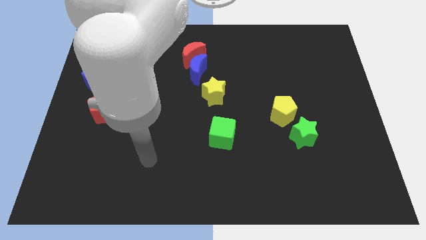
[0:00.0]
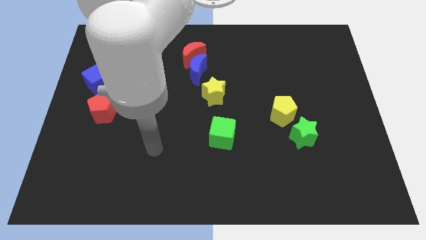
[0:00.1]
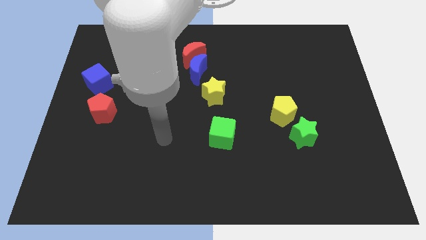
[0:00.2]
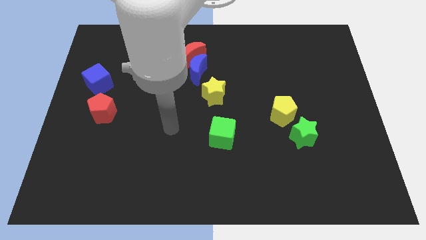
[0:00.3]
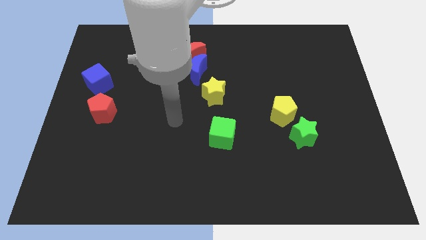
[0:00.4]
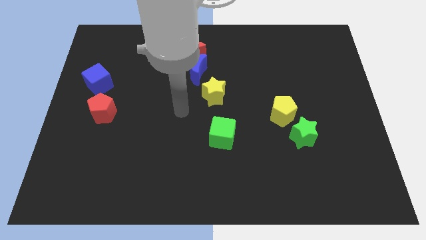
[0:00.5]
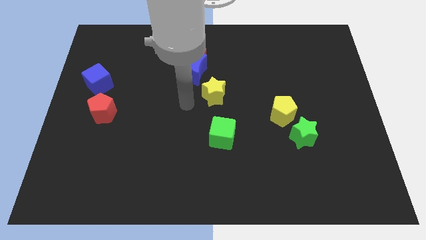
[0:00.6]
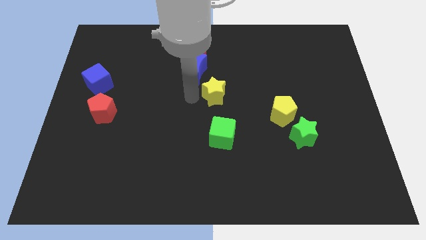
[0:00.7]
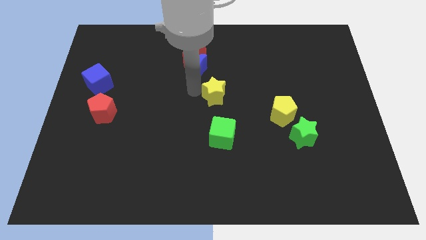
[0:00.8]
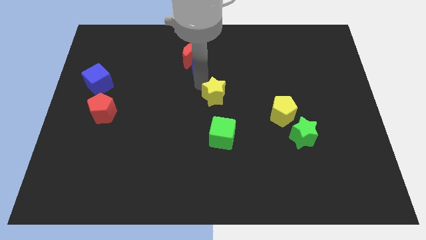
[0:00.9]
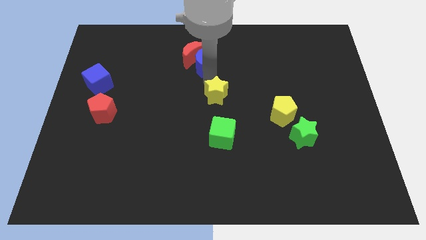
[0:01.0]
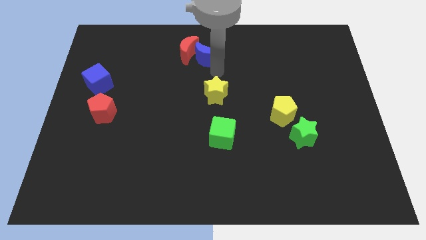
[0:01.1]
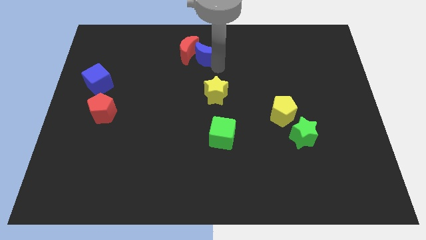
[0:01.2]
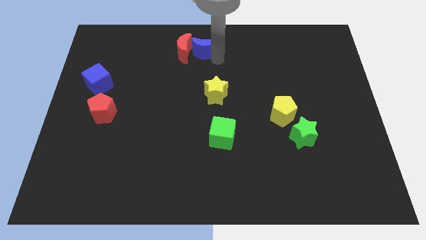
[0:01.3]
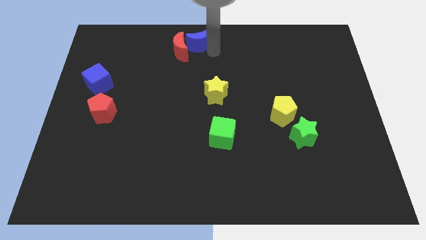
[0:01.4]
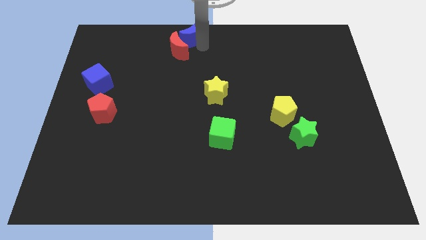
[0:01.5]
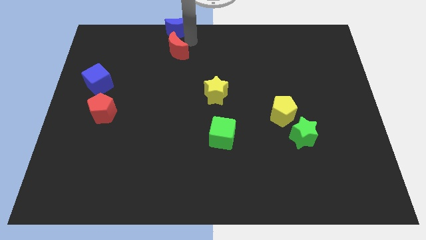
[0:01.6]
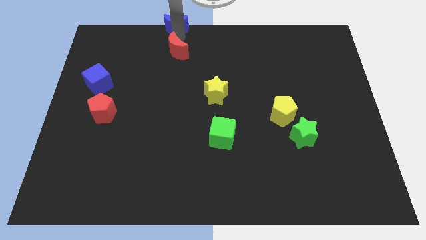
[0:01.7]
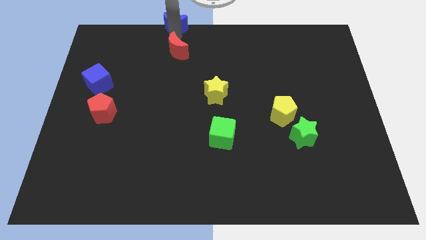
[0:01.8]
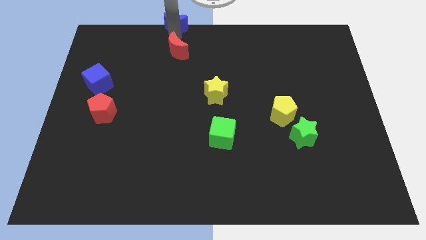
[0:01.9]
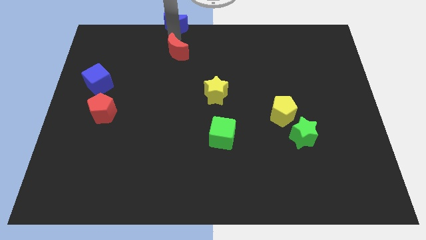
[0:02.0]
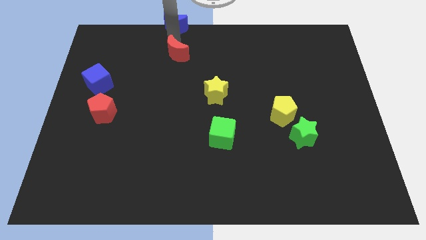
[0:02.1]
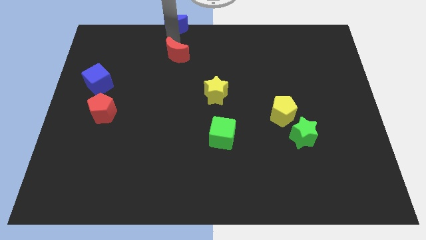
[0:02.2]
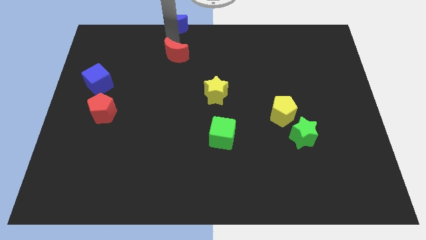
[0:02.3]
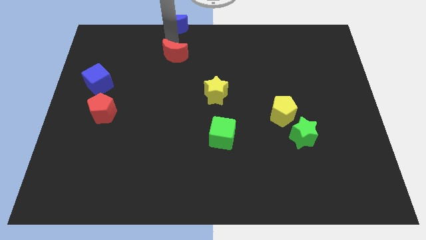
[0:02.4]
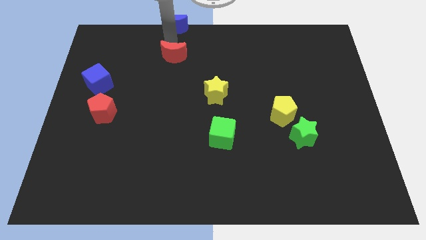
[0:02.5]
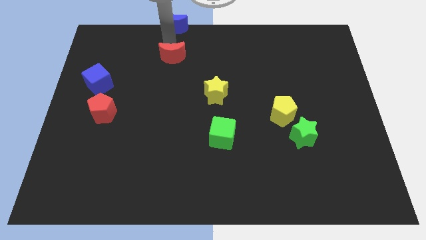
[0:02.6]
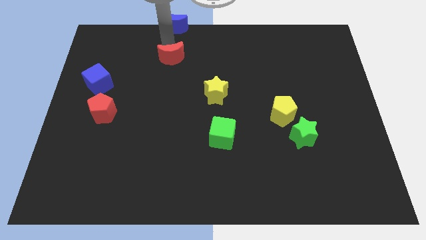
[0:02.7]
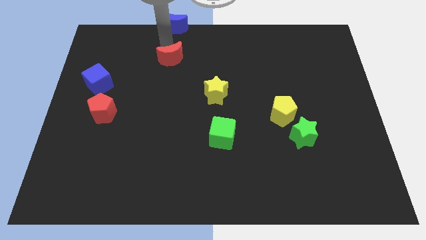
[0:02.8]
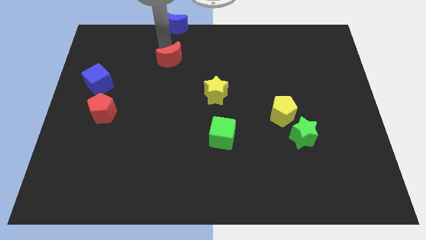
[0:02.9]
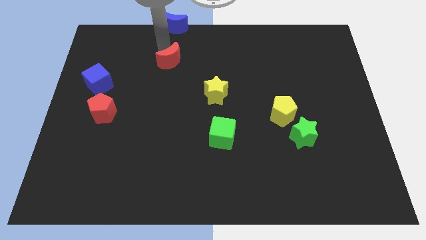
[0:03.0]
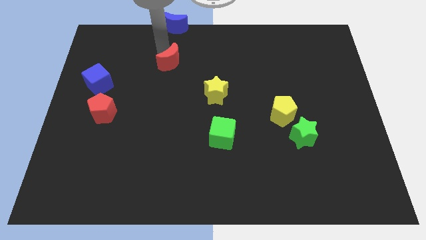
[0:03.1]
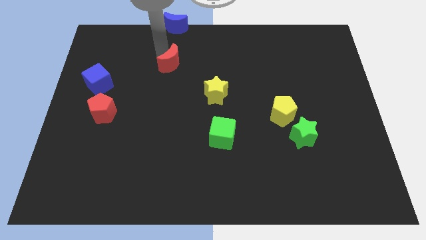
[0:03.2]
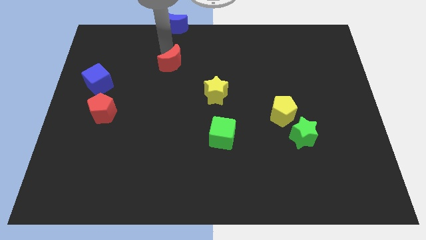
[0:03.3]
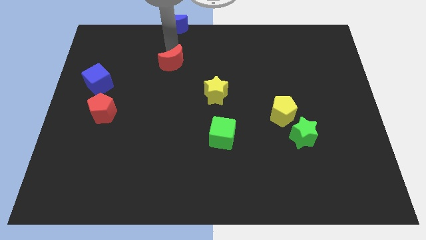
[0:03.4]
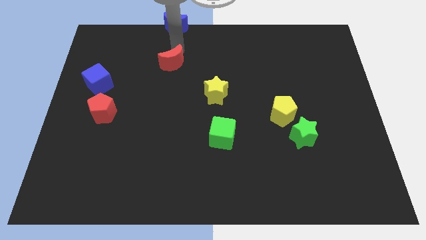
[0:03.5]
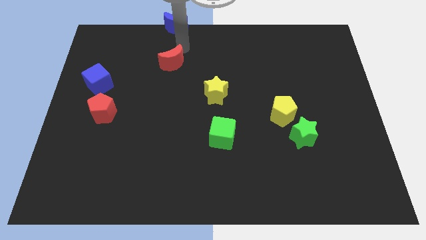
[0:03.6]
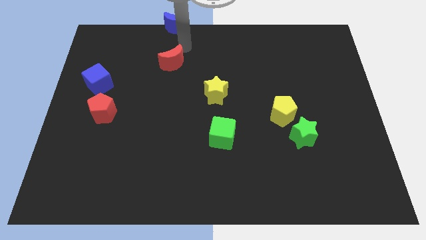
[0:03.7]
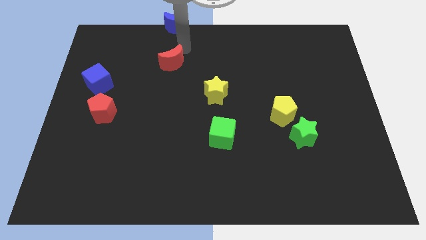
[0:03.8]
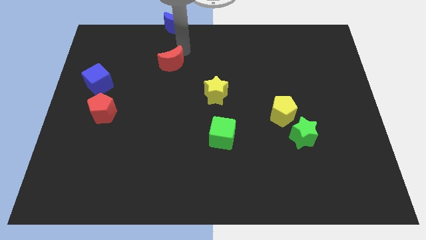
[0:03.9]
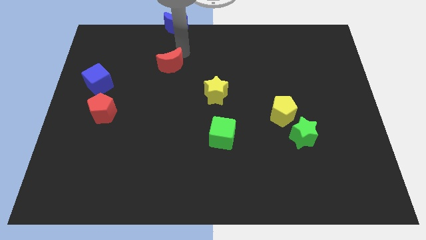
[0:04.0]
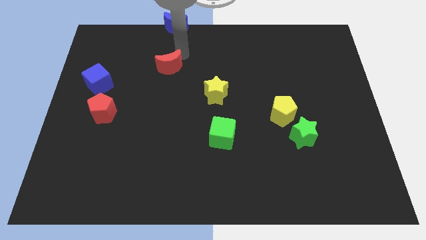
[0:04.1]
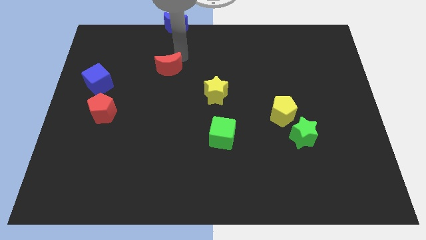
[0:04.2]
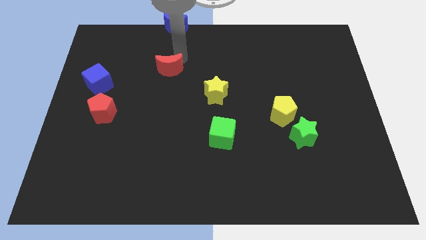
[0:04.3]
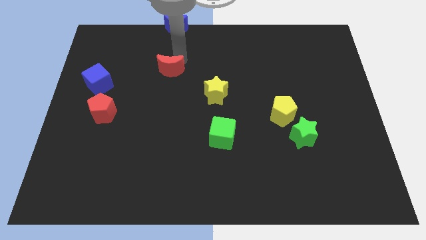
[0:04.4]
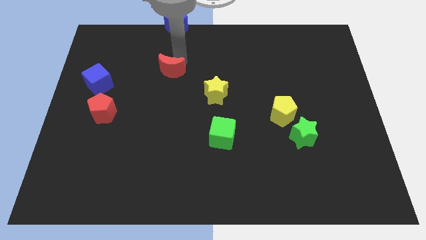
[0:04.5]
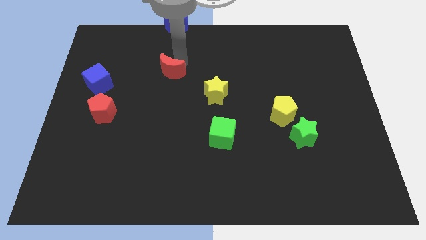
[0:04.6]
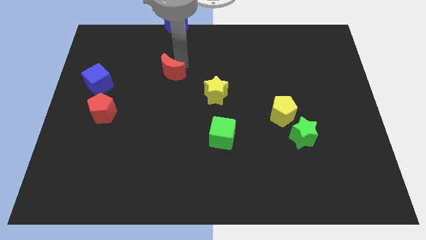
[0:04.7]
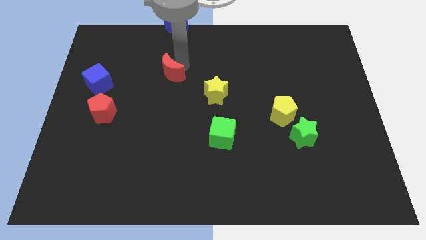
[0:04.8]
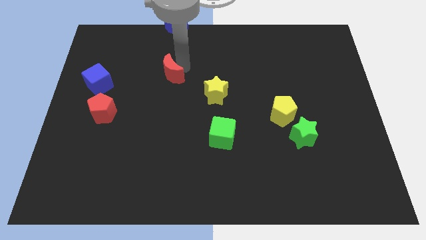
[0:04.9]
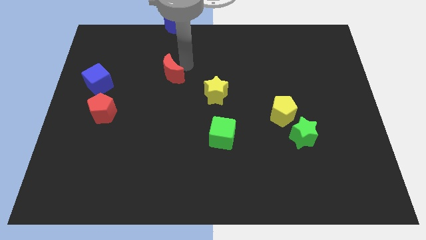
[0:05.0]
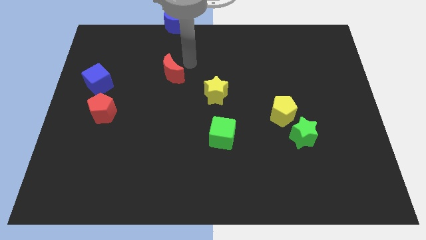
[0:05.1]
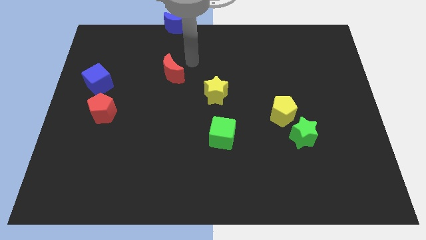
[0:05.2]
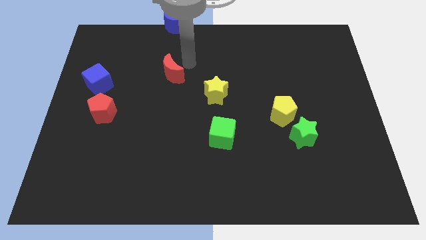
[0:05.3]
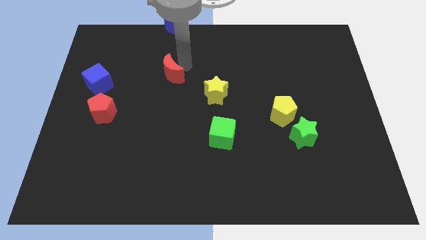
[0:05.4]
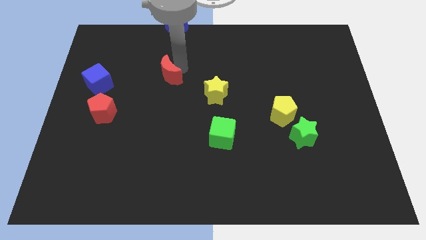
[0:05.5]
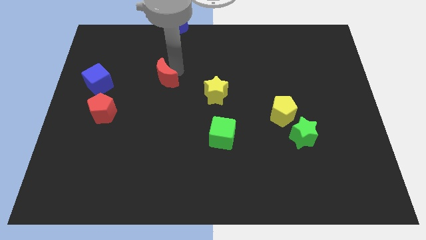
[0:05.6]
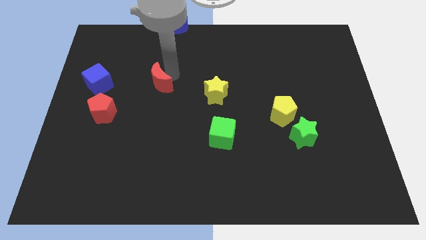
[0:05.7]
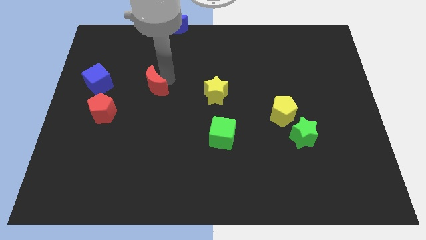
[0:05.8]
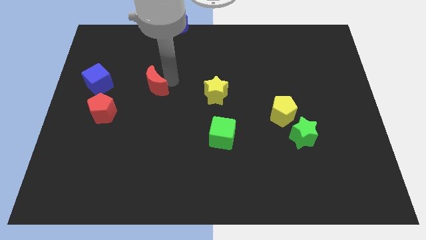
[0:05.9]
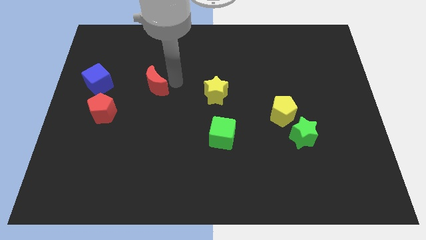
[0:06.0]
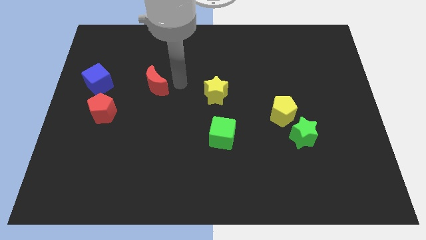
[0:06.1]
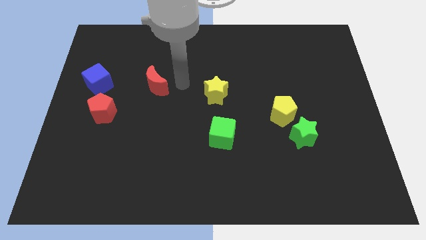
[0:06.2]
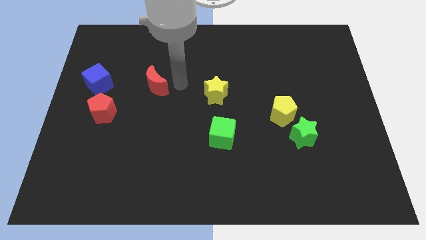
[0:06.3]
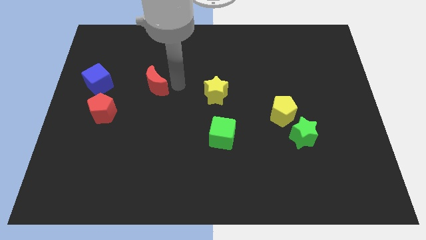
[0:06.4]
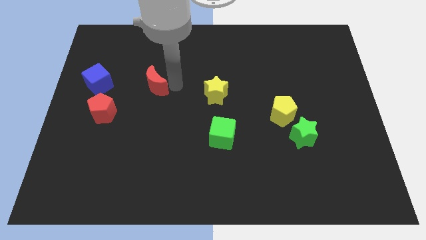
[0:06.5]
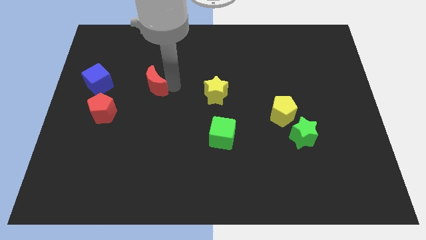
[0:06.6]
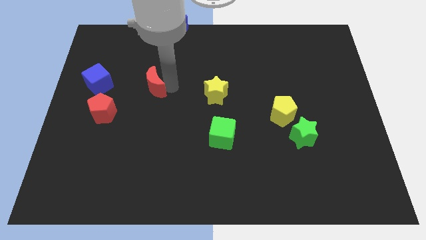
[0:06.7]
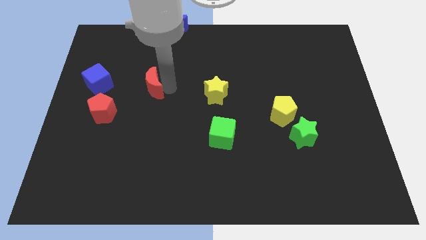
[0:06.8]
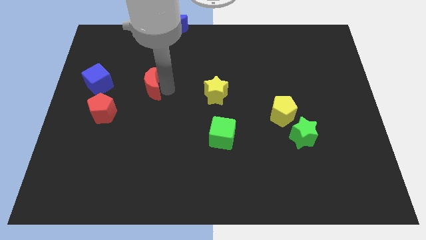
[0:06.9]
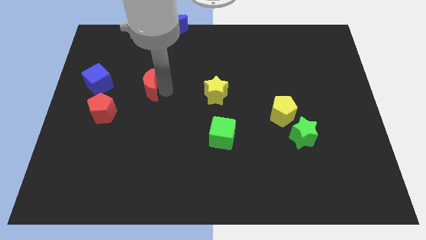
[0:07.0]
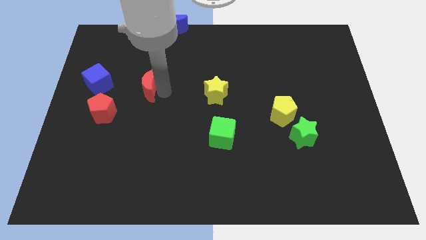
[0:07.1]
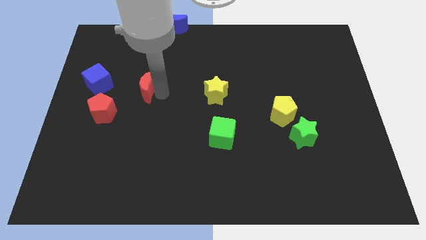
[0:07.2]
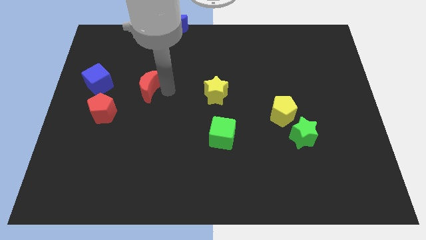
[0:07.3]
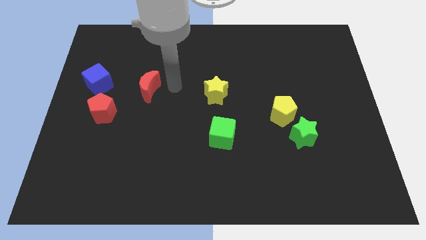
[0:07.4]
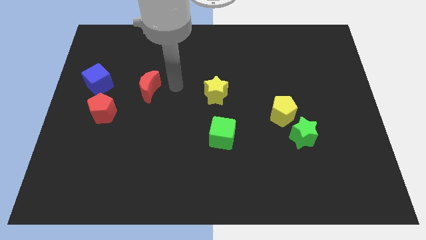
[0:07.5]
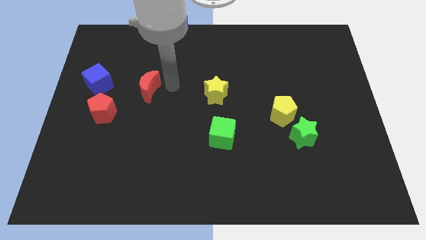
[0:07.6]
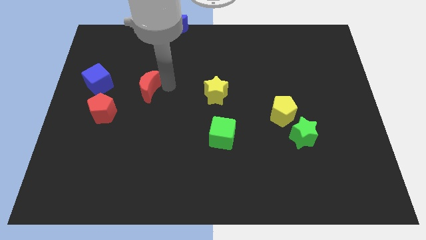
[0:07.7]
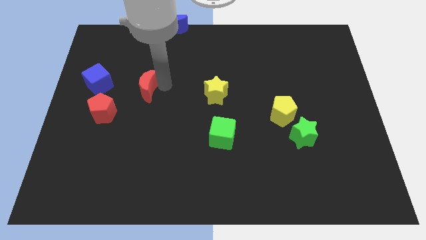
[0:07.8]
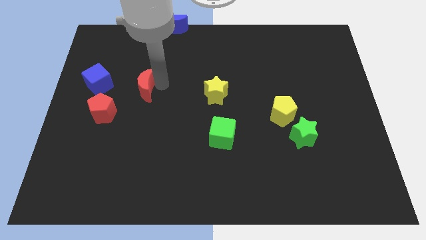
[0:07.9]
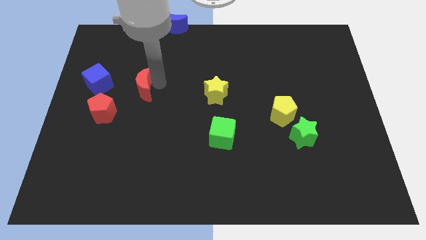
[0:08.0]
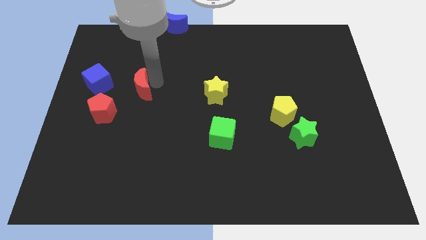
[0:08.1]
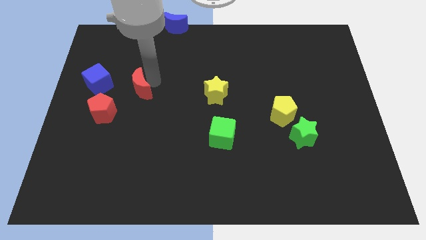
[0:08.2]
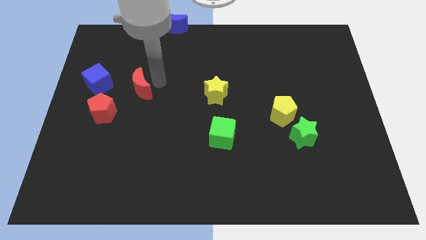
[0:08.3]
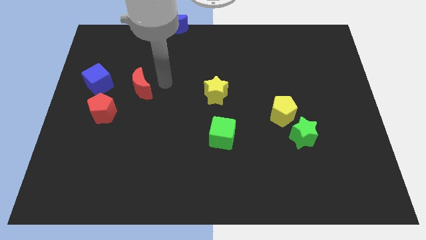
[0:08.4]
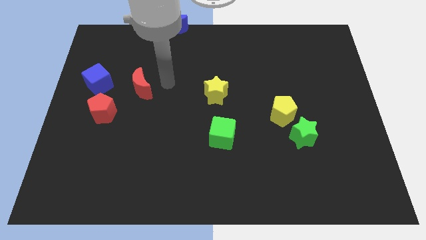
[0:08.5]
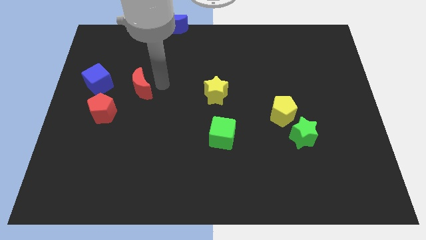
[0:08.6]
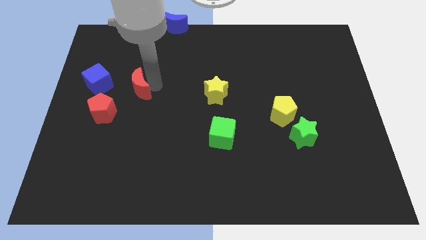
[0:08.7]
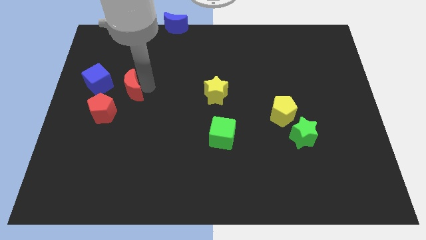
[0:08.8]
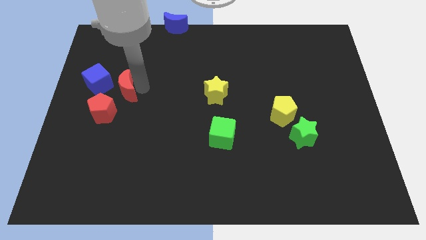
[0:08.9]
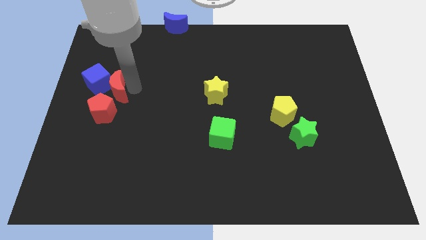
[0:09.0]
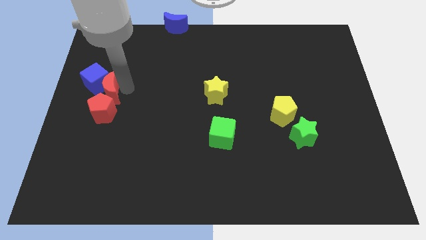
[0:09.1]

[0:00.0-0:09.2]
move the red moon below the blue cube
